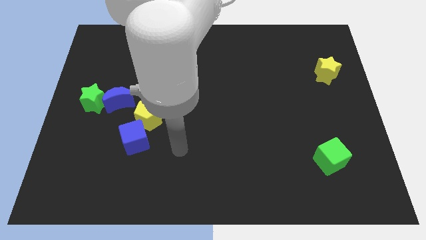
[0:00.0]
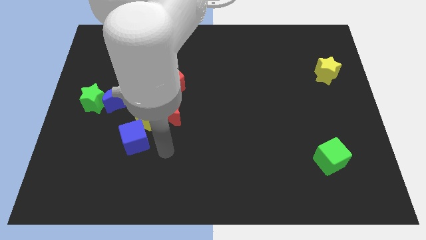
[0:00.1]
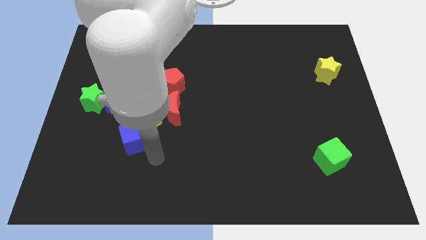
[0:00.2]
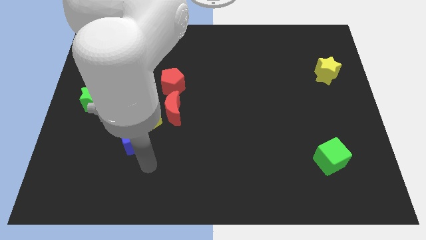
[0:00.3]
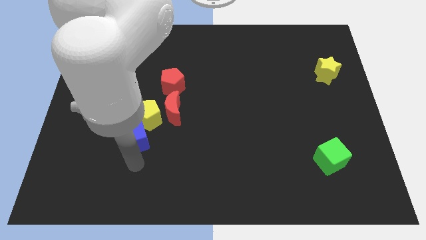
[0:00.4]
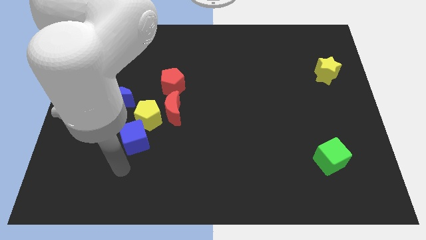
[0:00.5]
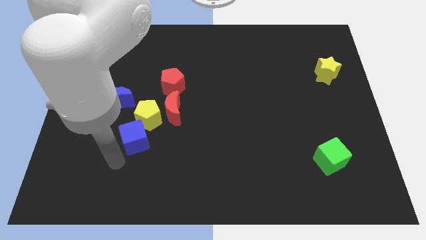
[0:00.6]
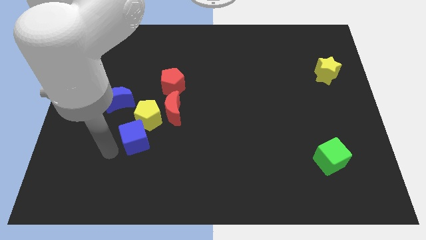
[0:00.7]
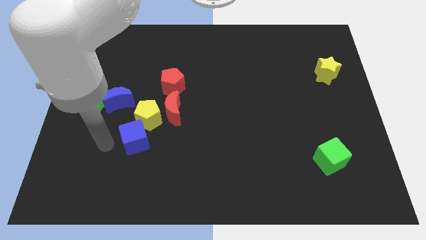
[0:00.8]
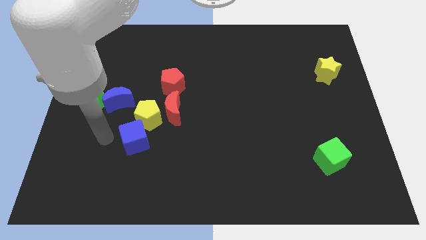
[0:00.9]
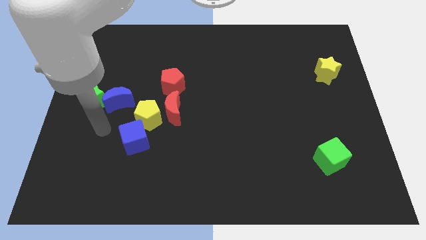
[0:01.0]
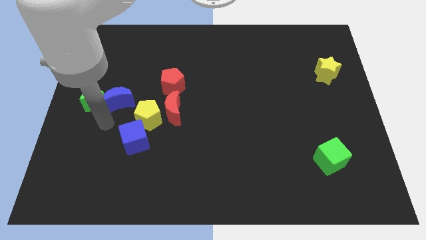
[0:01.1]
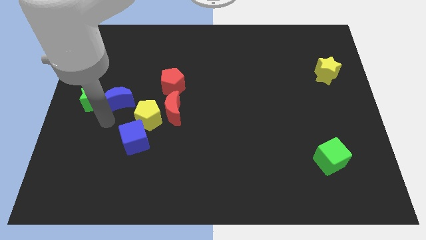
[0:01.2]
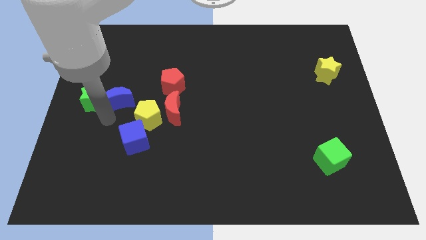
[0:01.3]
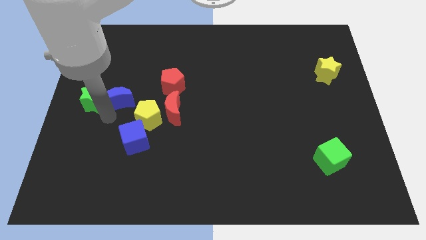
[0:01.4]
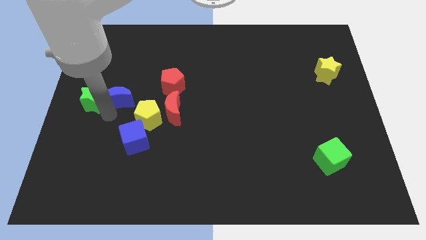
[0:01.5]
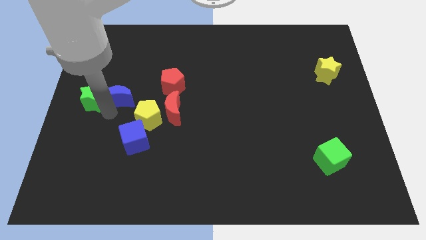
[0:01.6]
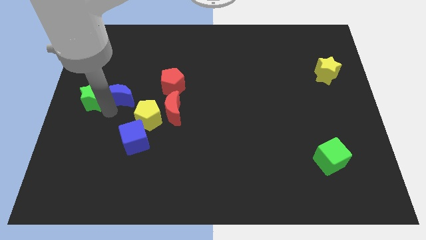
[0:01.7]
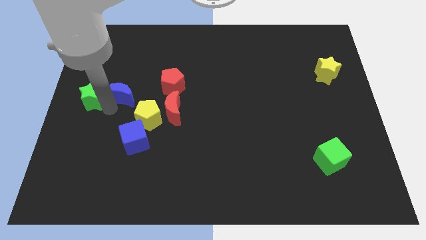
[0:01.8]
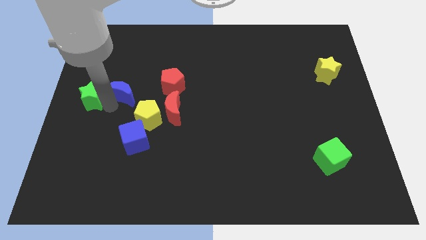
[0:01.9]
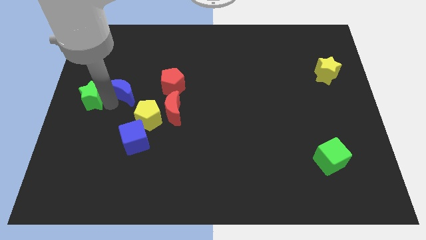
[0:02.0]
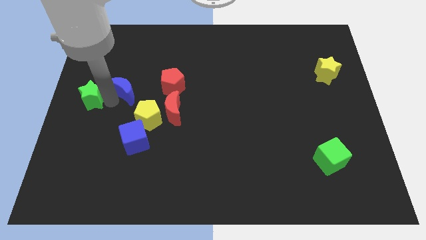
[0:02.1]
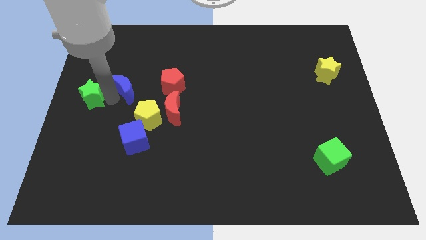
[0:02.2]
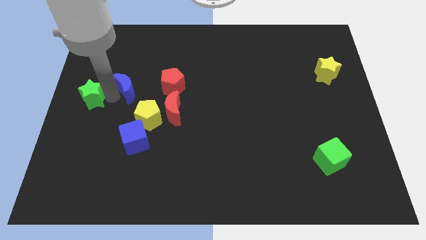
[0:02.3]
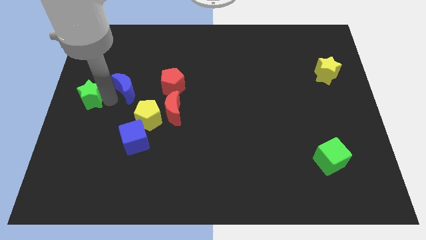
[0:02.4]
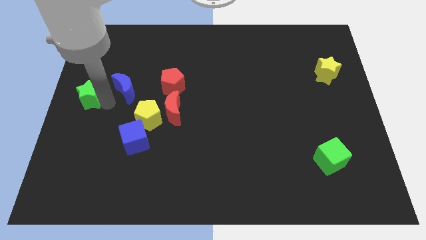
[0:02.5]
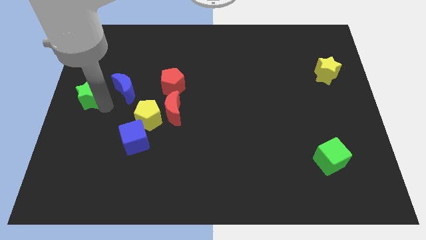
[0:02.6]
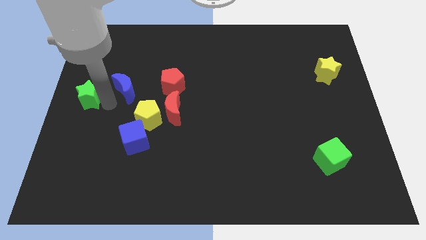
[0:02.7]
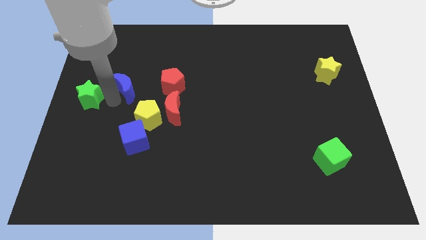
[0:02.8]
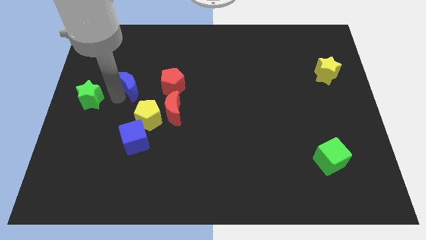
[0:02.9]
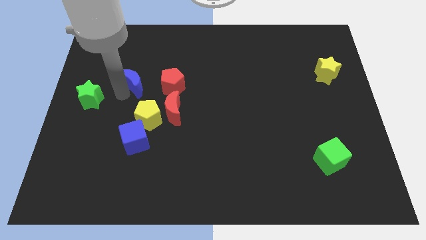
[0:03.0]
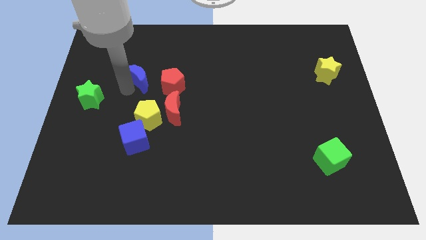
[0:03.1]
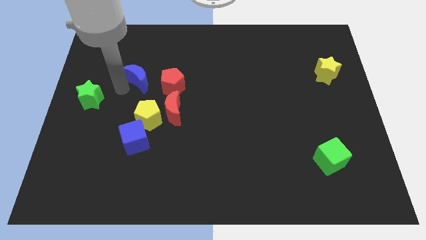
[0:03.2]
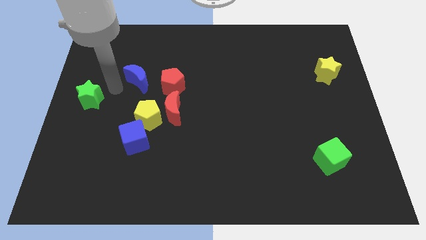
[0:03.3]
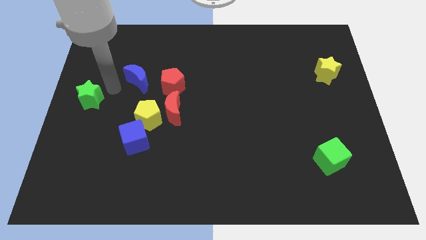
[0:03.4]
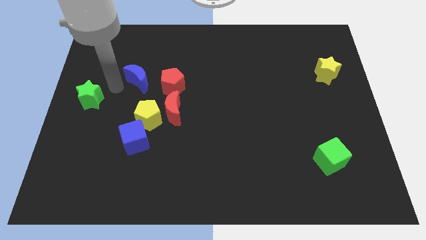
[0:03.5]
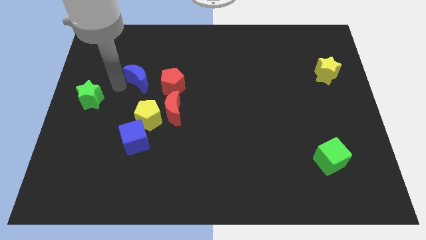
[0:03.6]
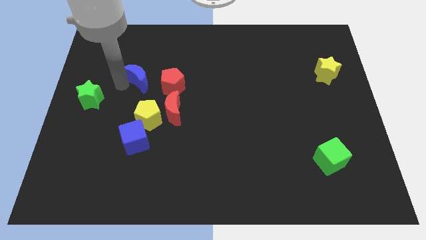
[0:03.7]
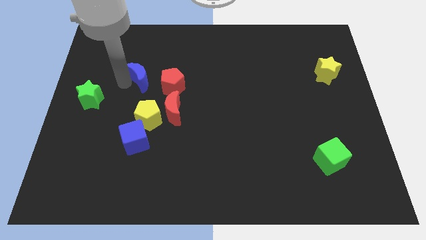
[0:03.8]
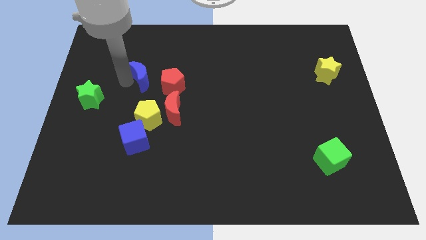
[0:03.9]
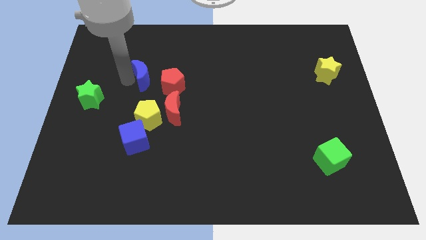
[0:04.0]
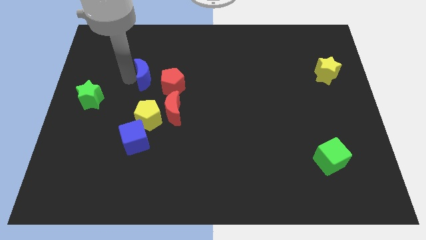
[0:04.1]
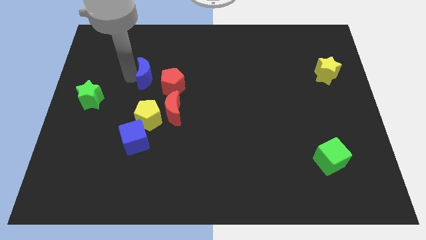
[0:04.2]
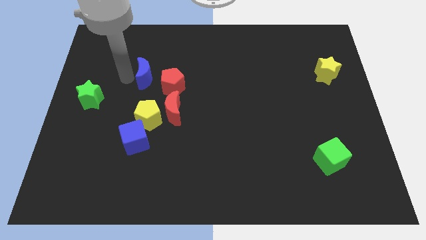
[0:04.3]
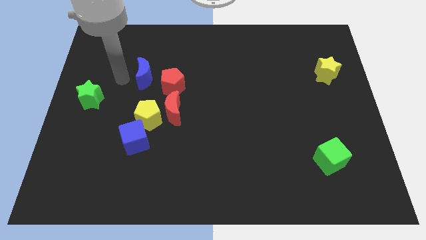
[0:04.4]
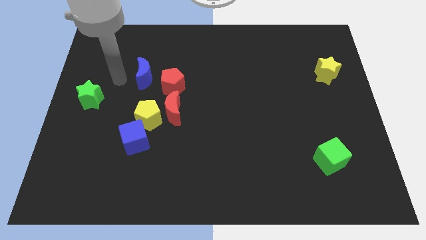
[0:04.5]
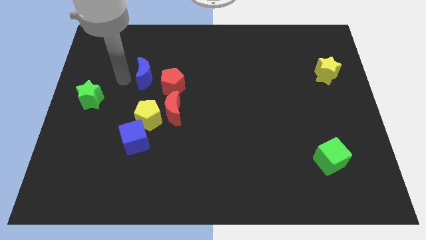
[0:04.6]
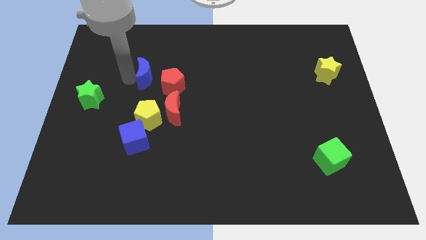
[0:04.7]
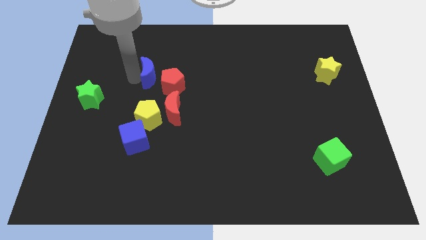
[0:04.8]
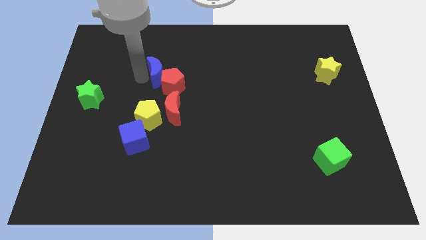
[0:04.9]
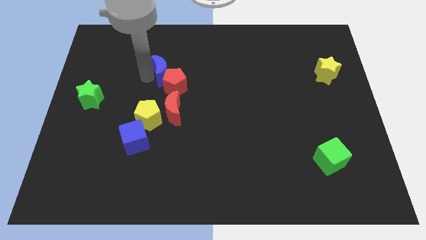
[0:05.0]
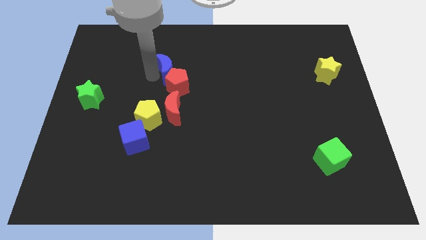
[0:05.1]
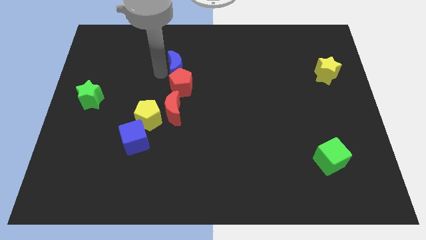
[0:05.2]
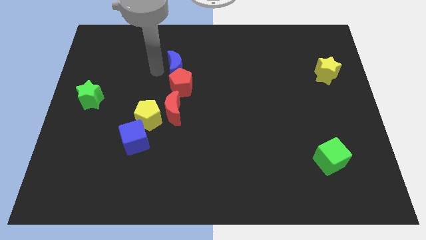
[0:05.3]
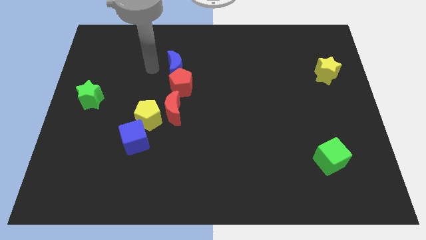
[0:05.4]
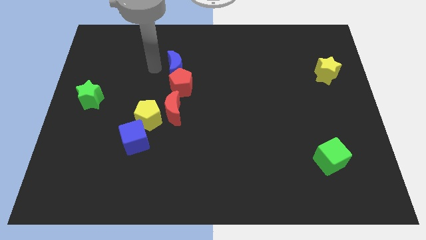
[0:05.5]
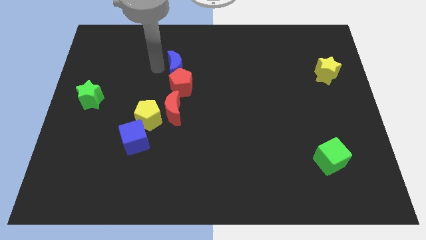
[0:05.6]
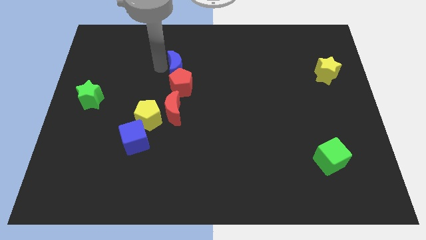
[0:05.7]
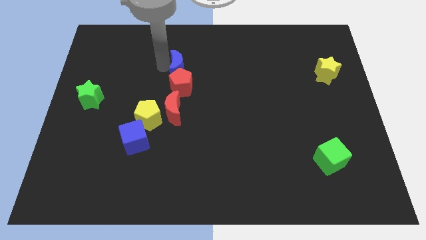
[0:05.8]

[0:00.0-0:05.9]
push the blue moon diagonally up and to the right of the red pentagon
